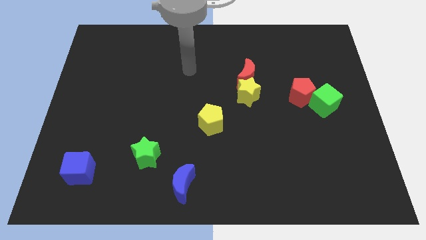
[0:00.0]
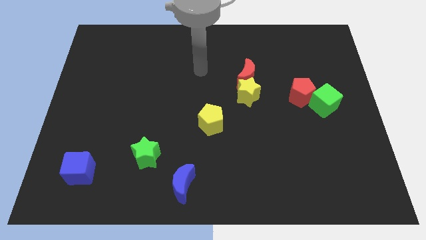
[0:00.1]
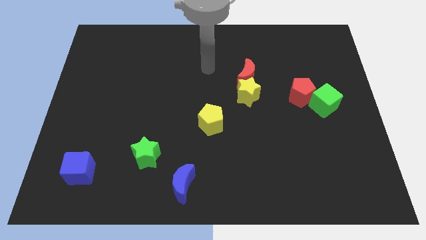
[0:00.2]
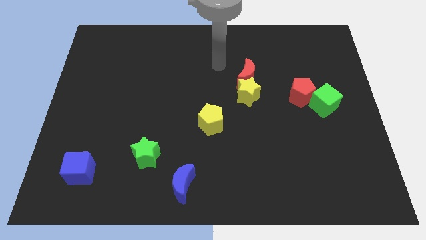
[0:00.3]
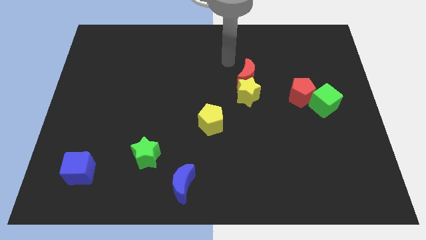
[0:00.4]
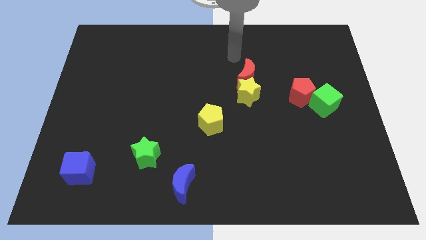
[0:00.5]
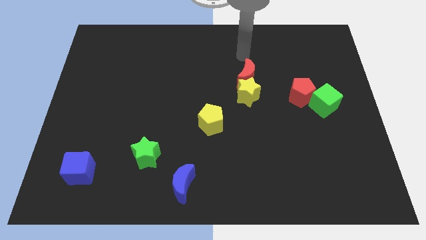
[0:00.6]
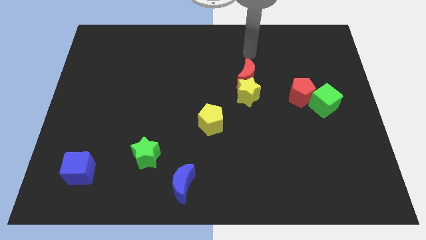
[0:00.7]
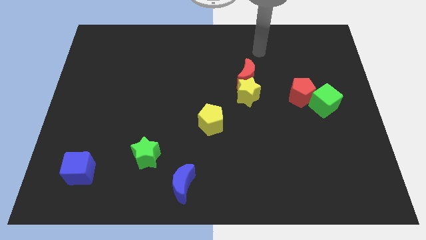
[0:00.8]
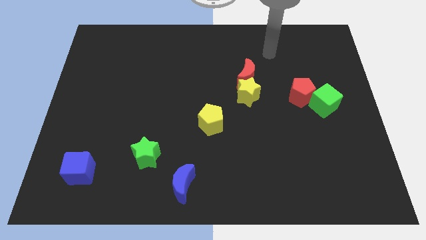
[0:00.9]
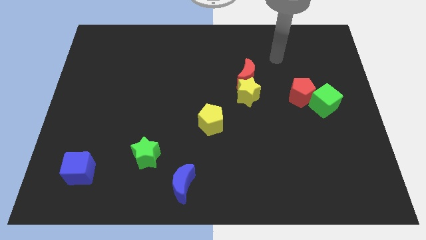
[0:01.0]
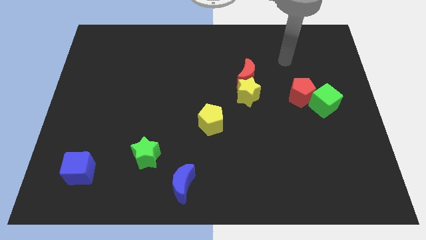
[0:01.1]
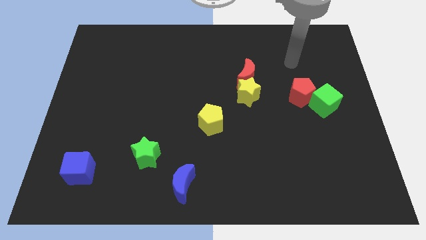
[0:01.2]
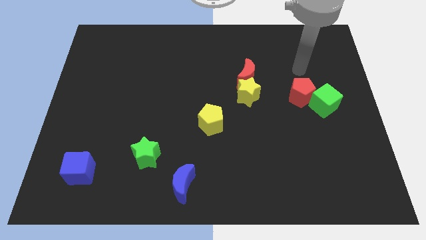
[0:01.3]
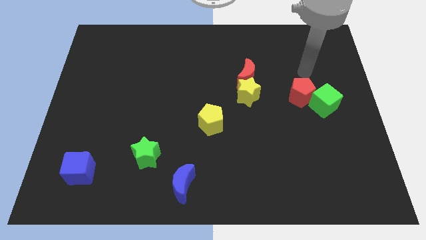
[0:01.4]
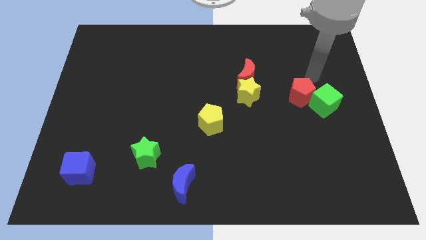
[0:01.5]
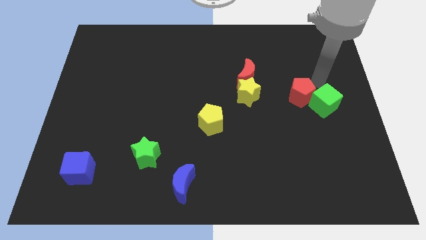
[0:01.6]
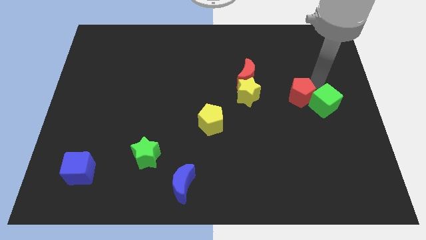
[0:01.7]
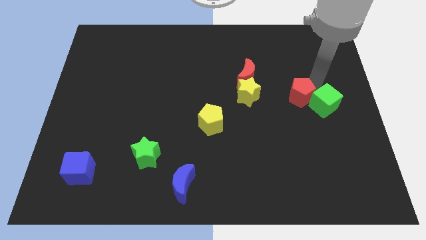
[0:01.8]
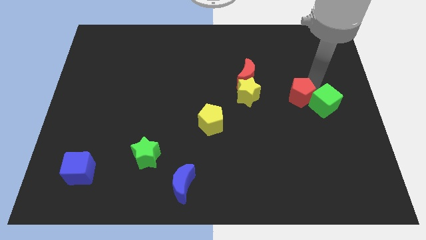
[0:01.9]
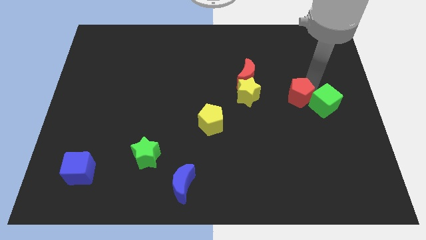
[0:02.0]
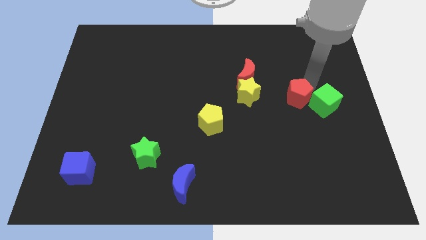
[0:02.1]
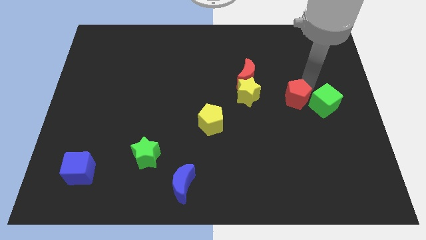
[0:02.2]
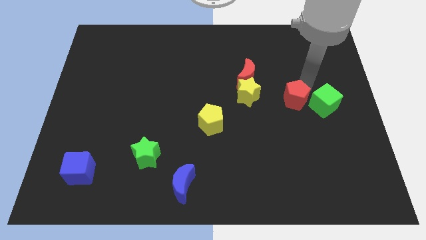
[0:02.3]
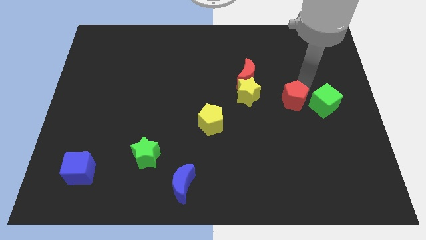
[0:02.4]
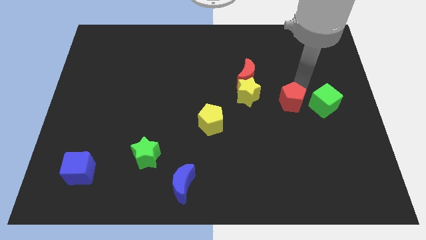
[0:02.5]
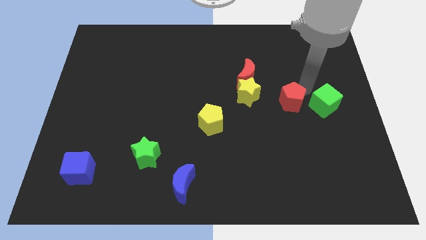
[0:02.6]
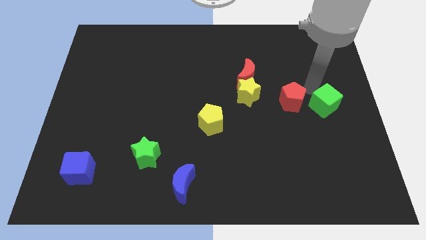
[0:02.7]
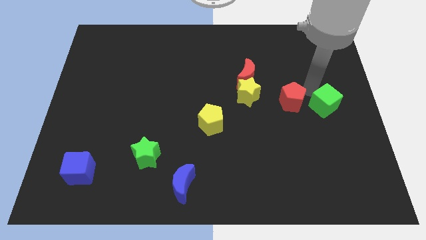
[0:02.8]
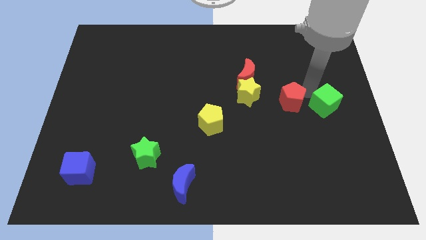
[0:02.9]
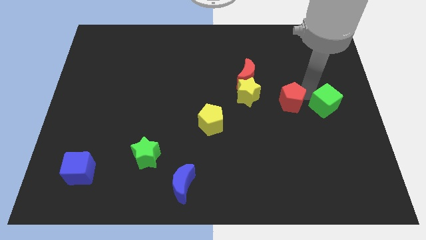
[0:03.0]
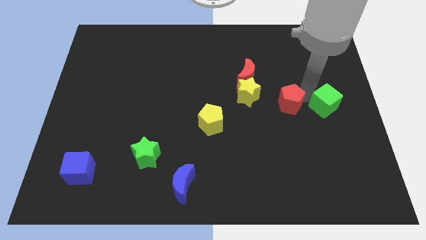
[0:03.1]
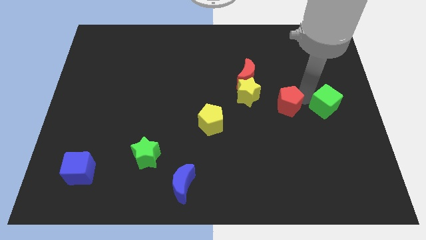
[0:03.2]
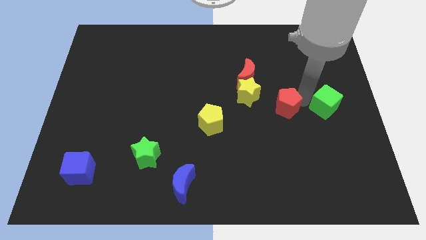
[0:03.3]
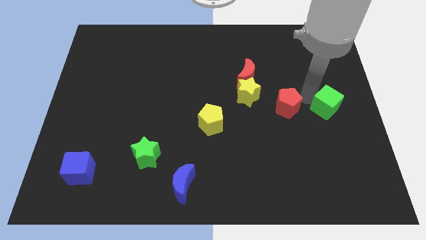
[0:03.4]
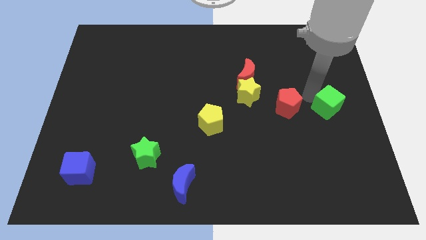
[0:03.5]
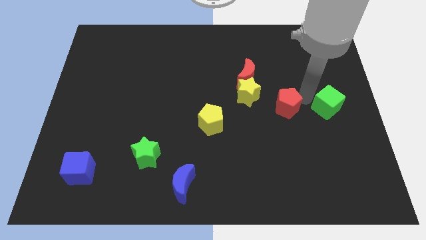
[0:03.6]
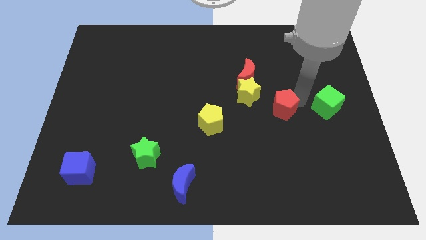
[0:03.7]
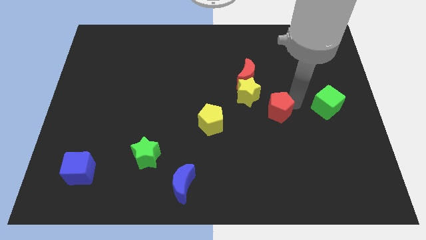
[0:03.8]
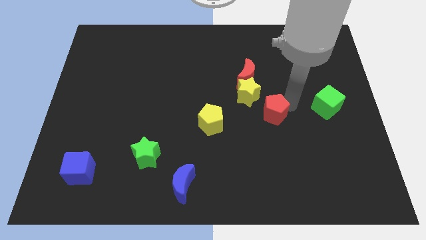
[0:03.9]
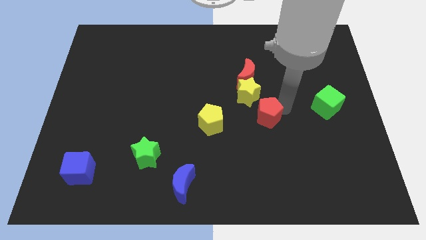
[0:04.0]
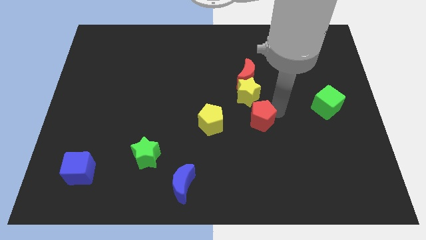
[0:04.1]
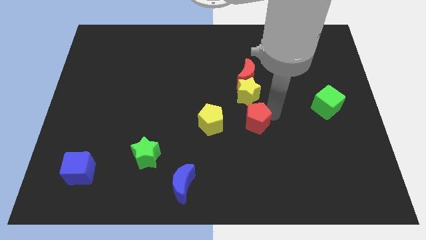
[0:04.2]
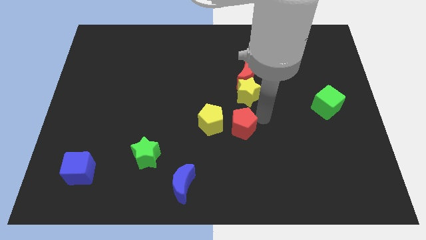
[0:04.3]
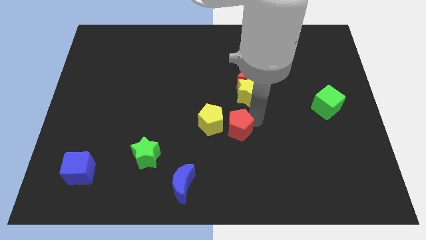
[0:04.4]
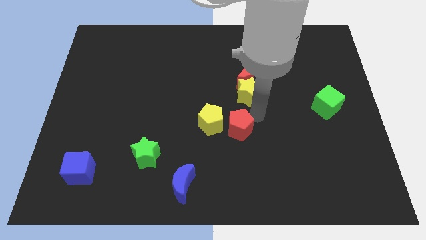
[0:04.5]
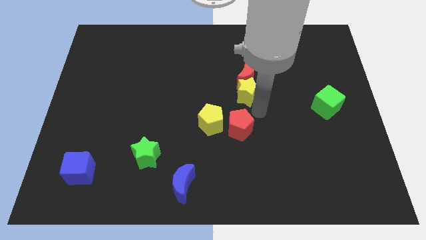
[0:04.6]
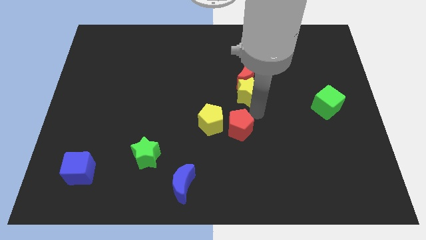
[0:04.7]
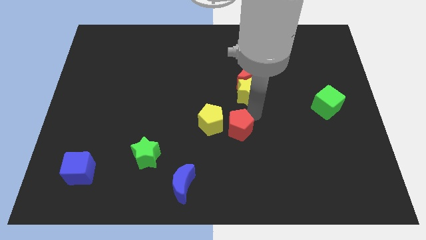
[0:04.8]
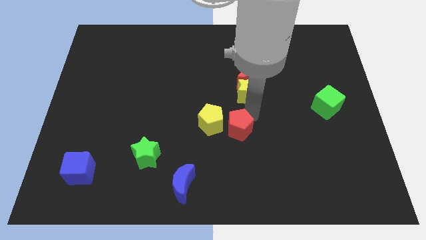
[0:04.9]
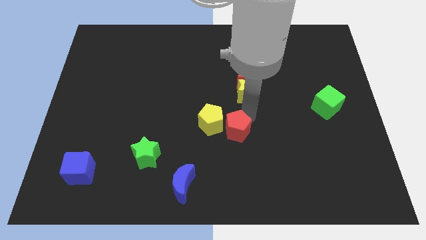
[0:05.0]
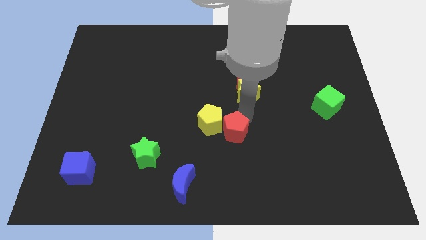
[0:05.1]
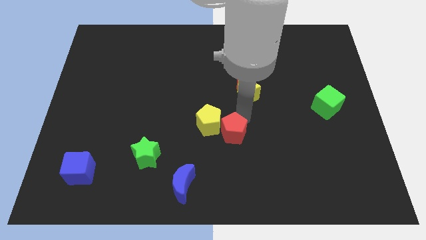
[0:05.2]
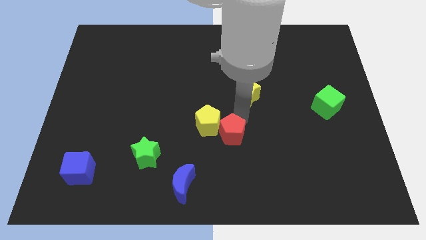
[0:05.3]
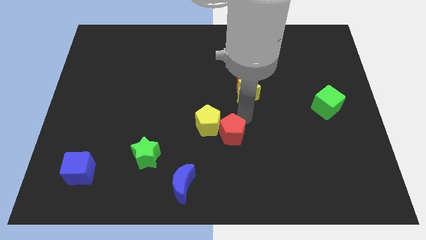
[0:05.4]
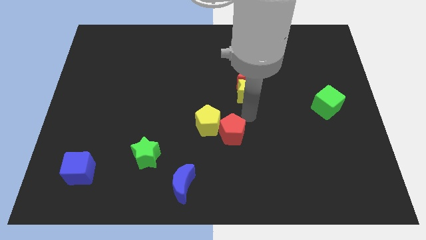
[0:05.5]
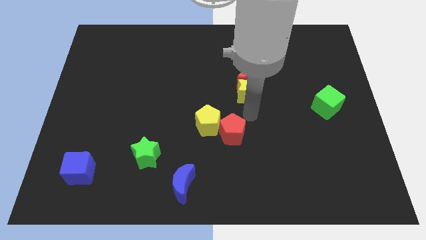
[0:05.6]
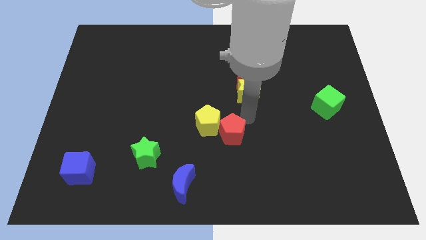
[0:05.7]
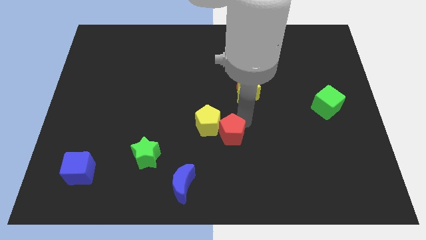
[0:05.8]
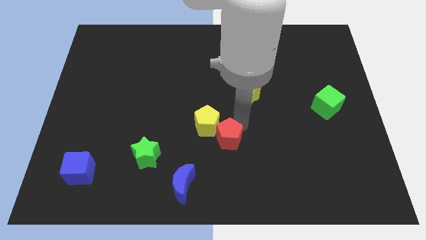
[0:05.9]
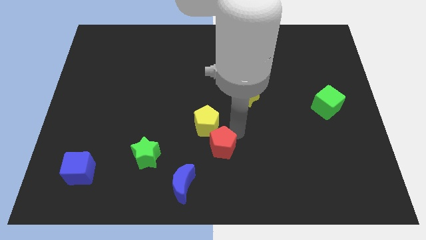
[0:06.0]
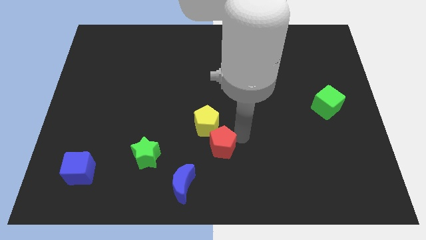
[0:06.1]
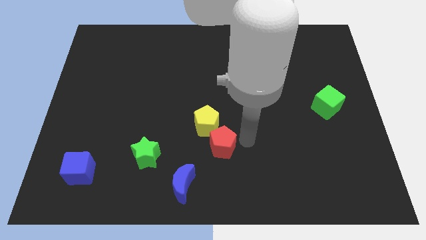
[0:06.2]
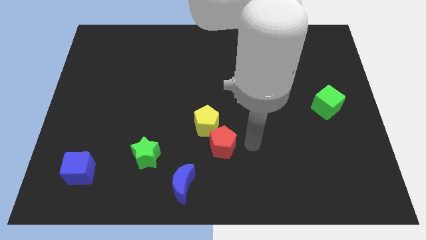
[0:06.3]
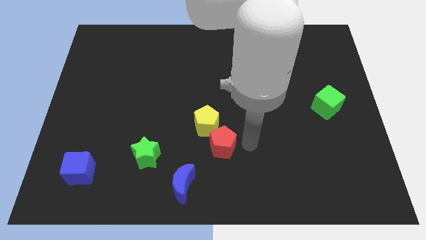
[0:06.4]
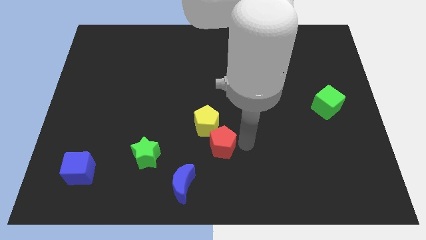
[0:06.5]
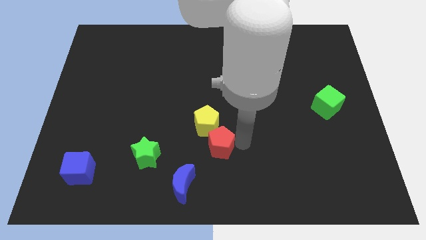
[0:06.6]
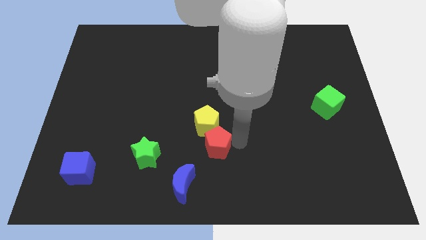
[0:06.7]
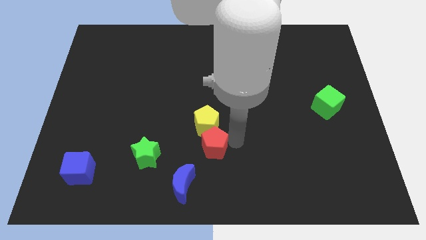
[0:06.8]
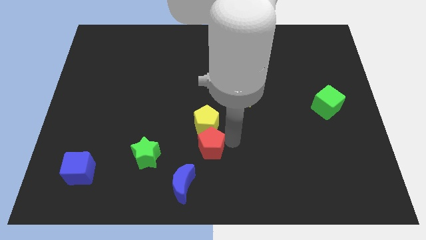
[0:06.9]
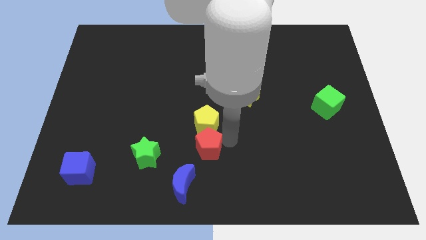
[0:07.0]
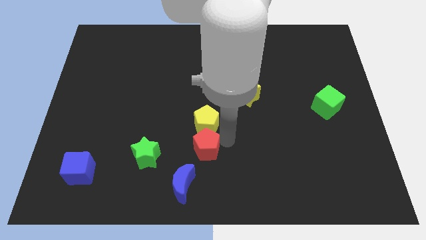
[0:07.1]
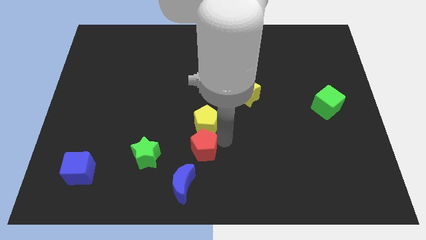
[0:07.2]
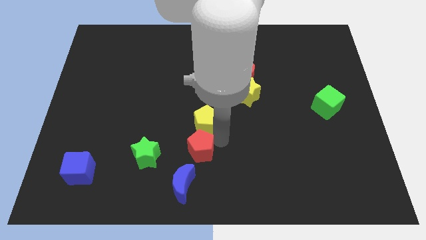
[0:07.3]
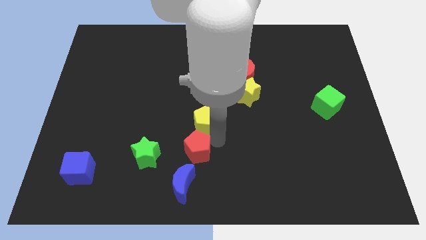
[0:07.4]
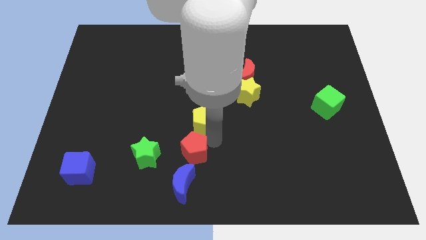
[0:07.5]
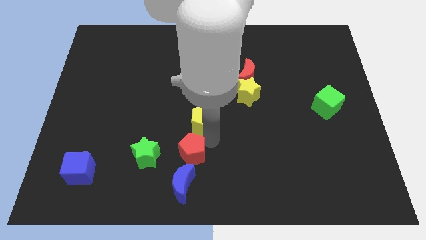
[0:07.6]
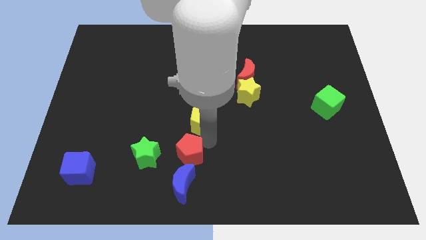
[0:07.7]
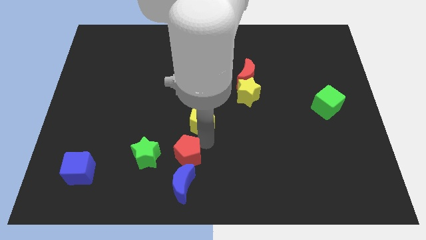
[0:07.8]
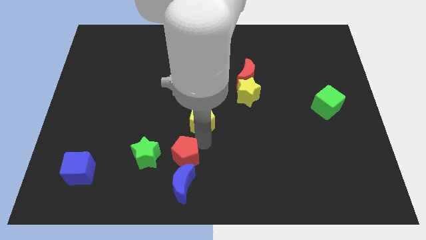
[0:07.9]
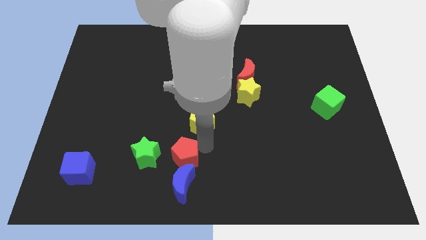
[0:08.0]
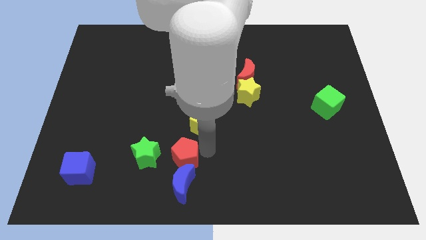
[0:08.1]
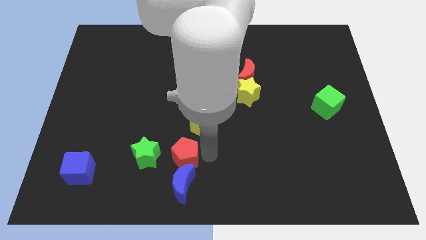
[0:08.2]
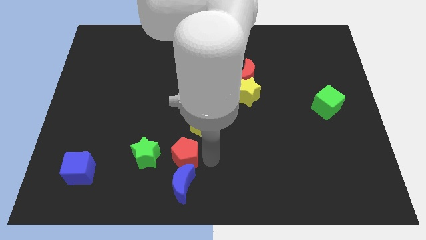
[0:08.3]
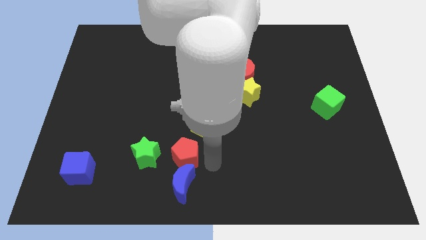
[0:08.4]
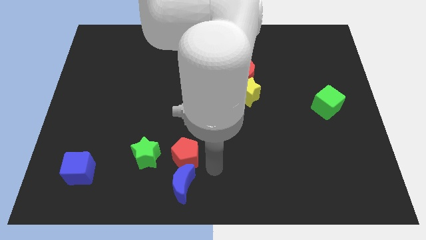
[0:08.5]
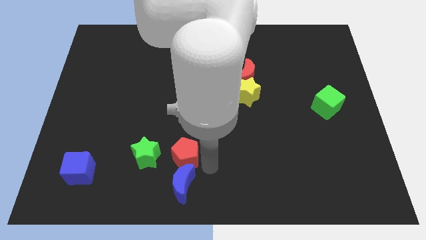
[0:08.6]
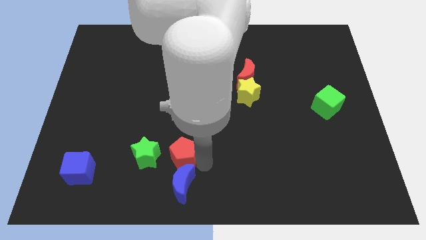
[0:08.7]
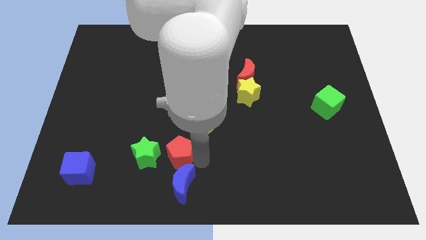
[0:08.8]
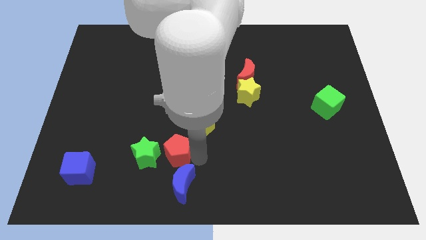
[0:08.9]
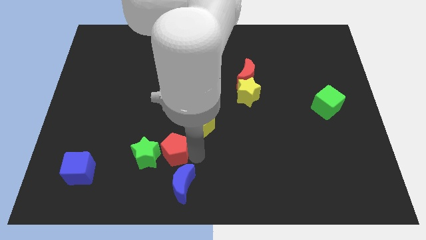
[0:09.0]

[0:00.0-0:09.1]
move the red pentagon towards the green star
